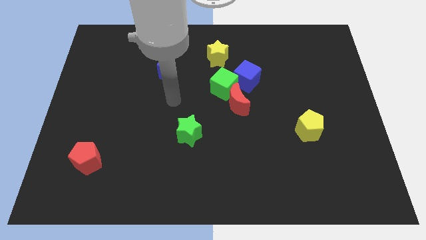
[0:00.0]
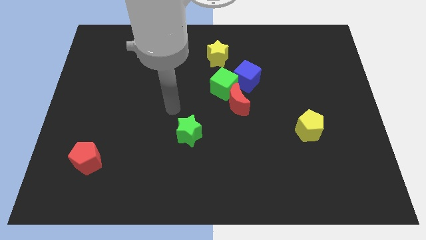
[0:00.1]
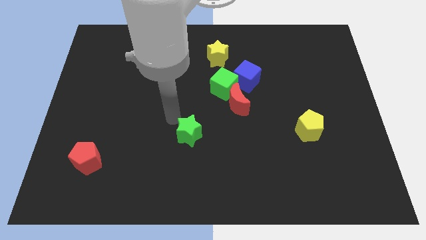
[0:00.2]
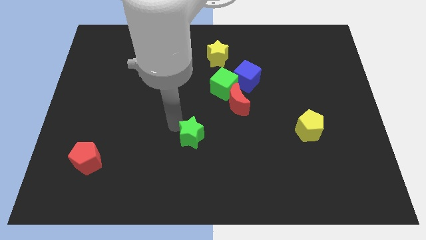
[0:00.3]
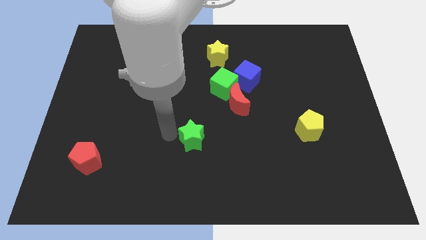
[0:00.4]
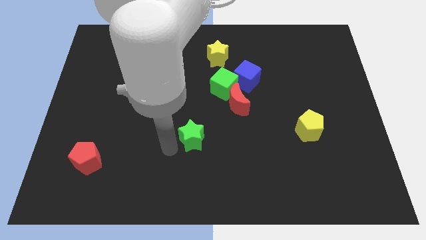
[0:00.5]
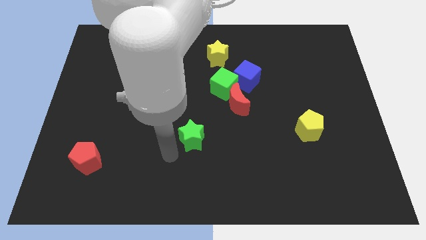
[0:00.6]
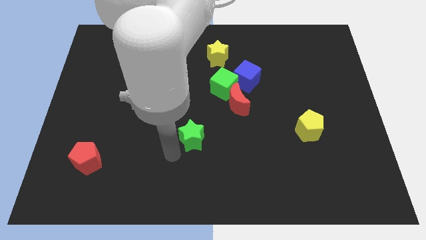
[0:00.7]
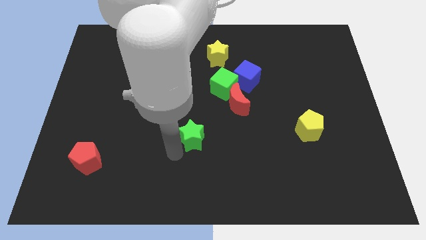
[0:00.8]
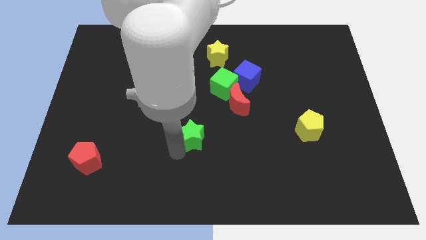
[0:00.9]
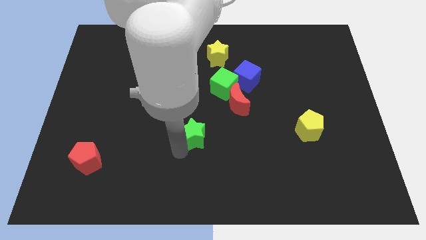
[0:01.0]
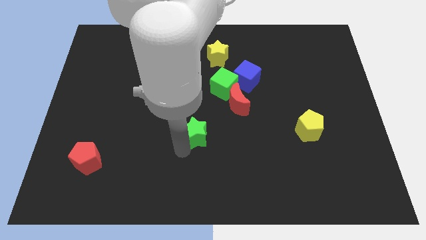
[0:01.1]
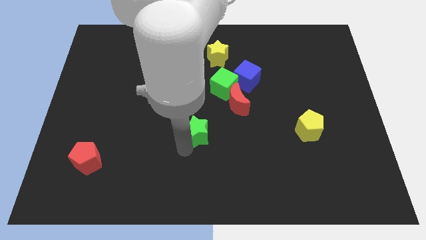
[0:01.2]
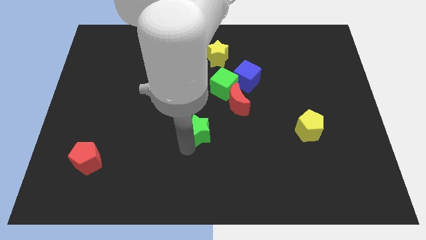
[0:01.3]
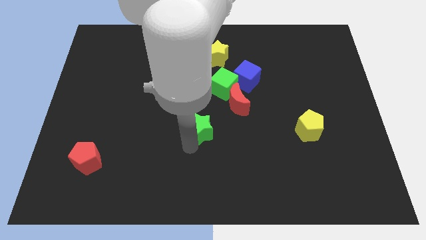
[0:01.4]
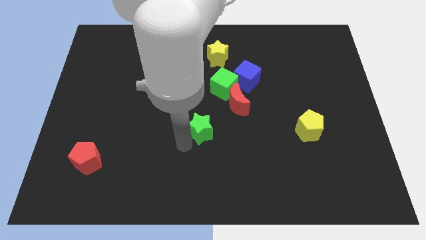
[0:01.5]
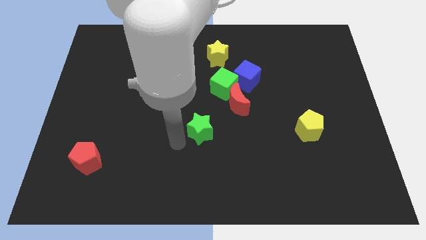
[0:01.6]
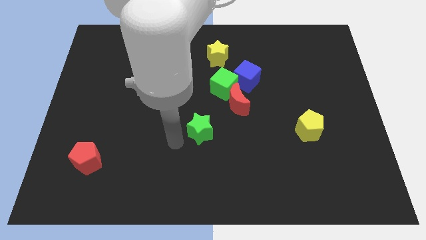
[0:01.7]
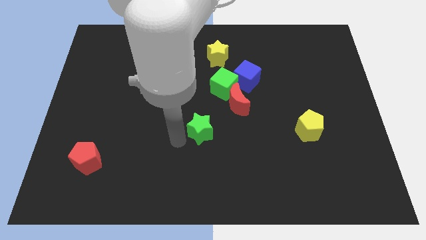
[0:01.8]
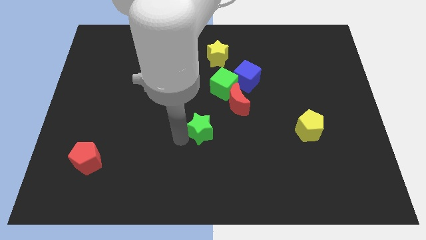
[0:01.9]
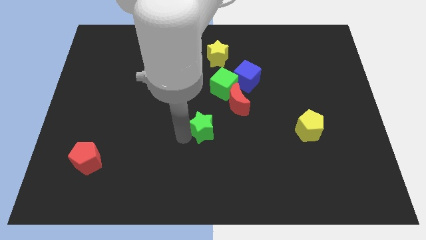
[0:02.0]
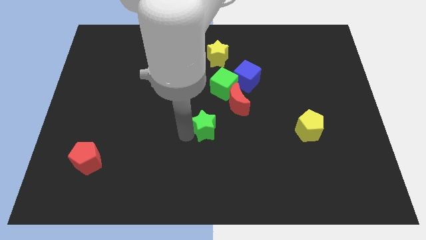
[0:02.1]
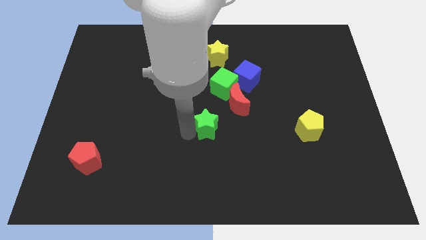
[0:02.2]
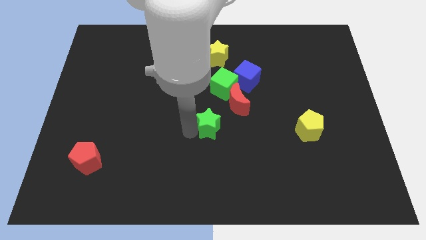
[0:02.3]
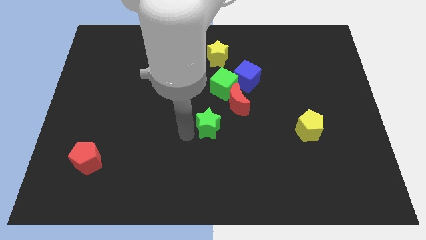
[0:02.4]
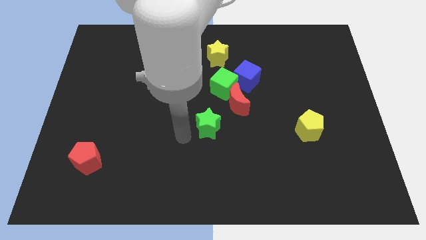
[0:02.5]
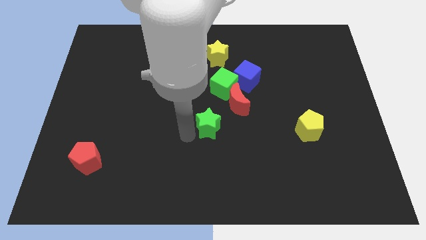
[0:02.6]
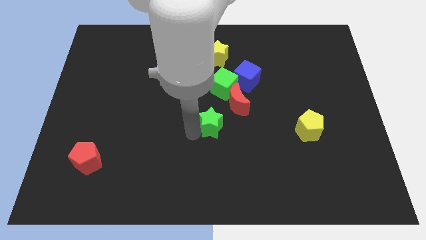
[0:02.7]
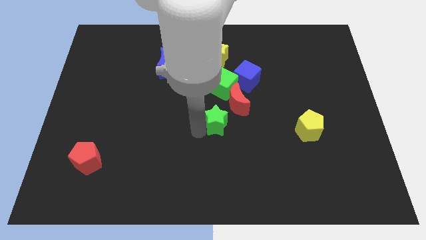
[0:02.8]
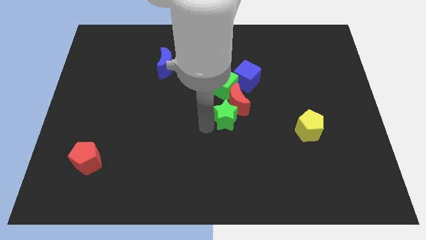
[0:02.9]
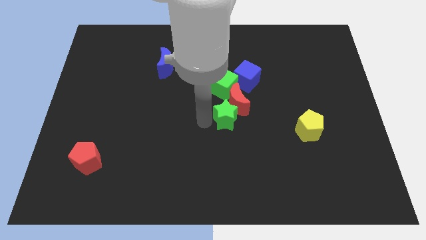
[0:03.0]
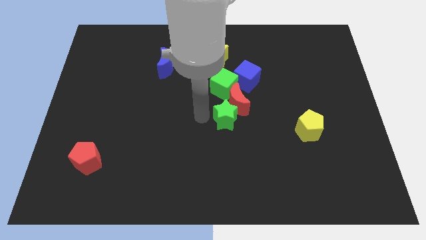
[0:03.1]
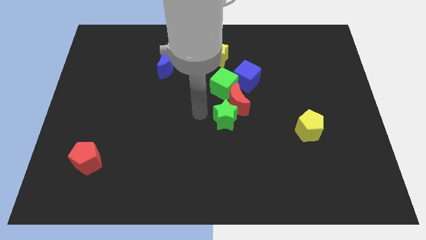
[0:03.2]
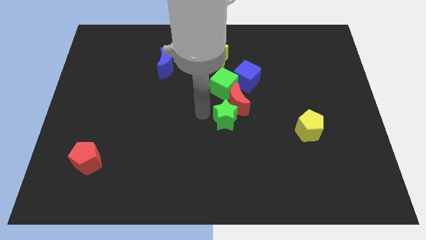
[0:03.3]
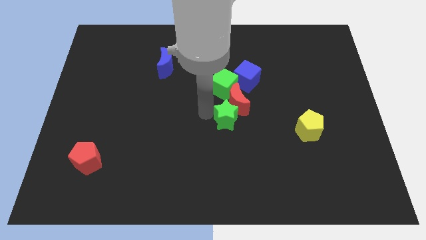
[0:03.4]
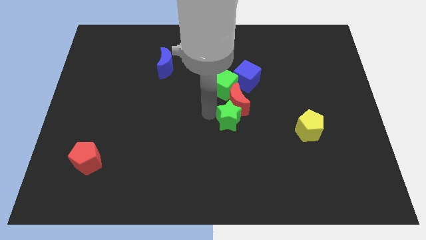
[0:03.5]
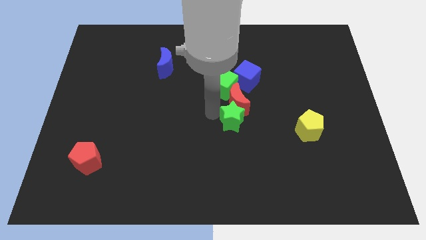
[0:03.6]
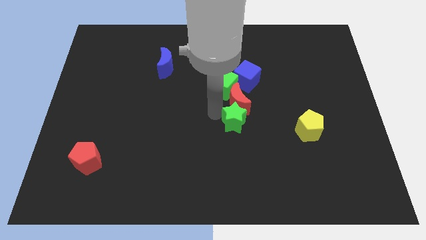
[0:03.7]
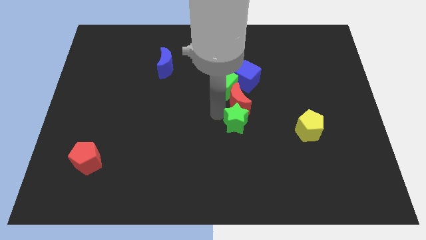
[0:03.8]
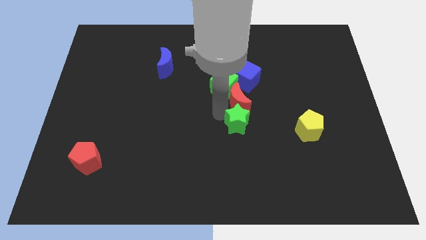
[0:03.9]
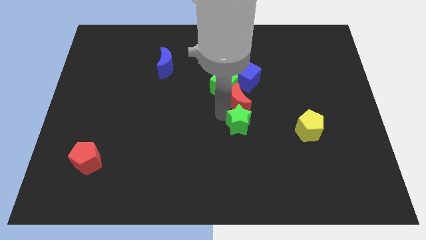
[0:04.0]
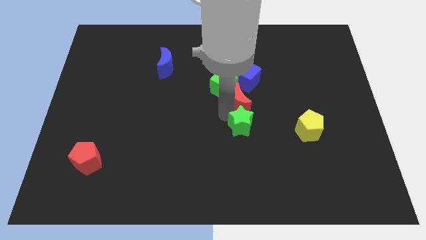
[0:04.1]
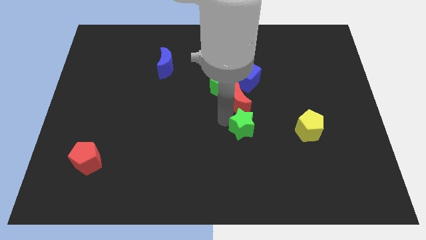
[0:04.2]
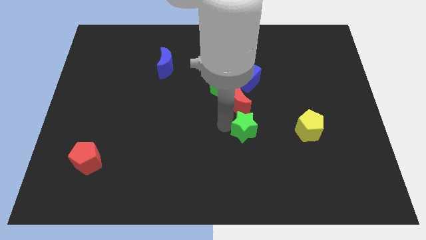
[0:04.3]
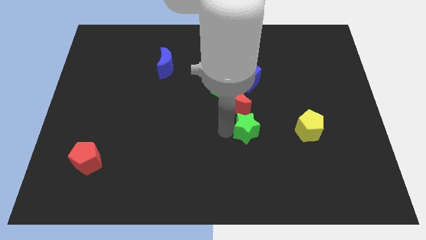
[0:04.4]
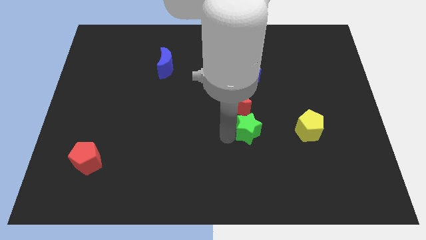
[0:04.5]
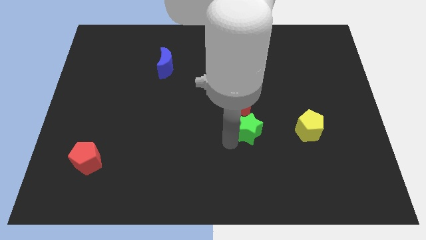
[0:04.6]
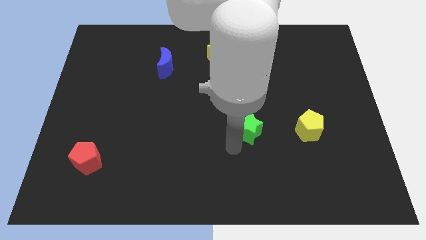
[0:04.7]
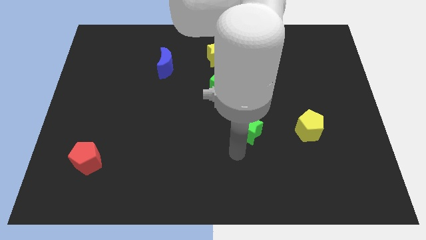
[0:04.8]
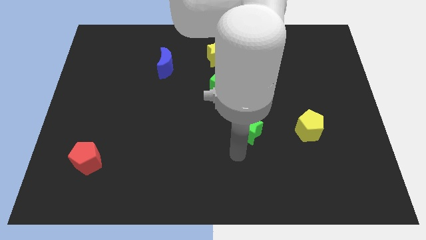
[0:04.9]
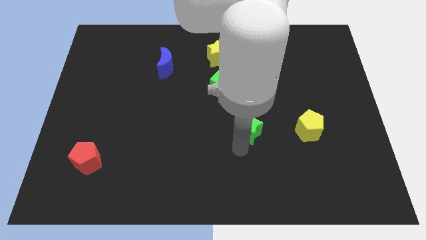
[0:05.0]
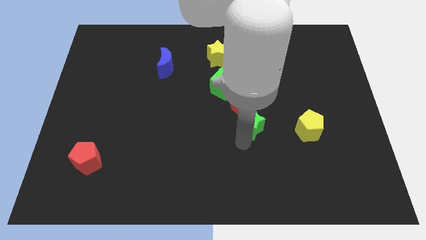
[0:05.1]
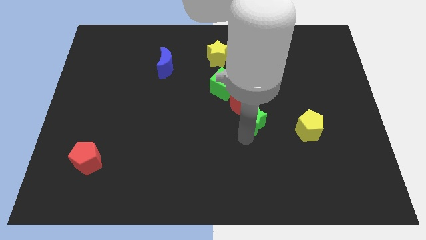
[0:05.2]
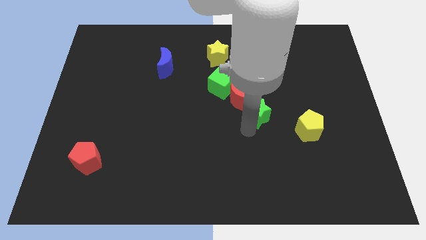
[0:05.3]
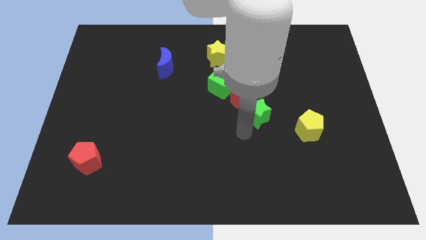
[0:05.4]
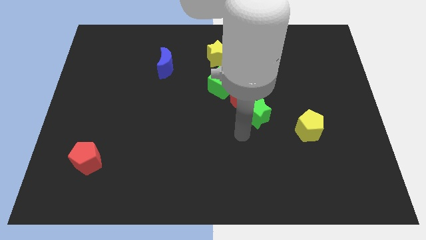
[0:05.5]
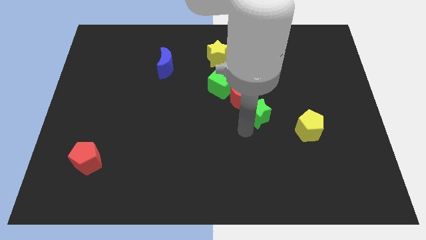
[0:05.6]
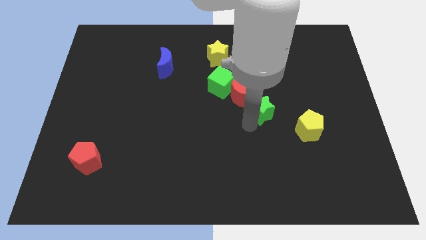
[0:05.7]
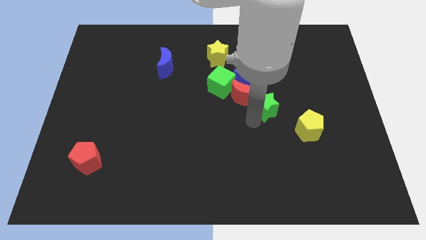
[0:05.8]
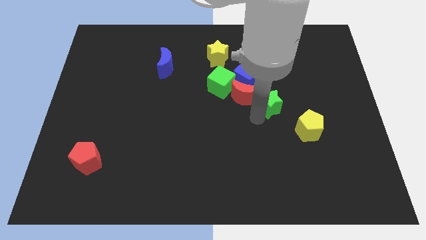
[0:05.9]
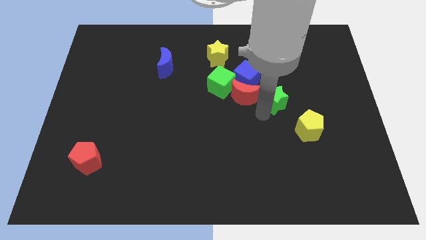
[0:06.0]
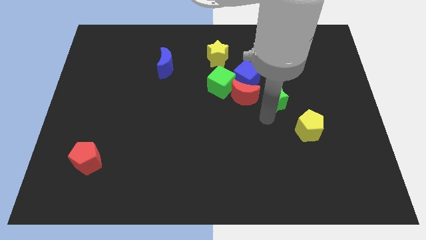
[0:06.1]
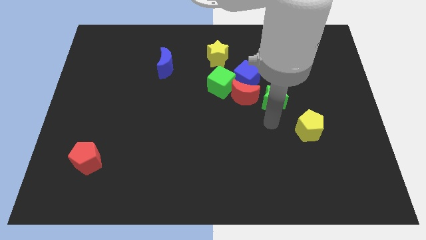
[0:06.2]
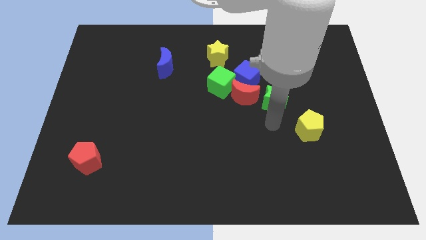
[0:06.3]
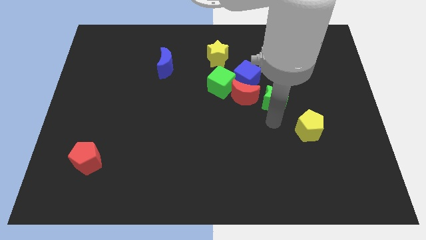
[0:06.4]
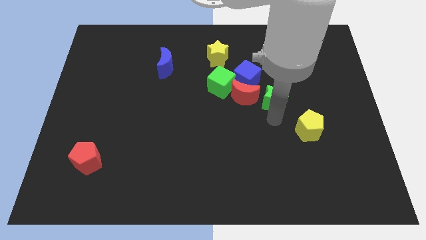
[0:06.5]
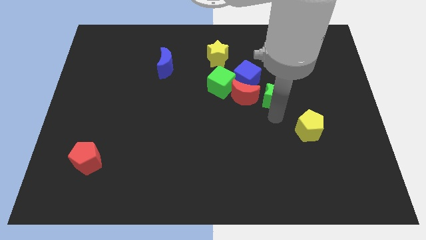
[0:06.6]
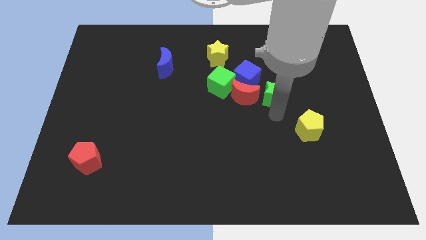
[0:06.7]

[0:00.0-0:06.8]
slide the green star upwards and then to the right

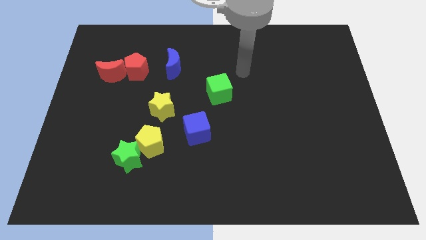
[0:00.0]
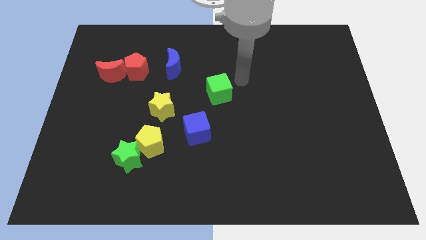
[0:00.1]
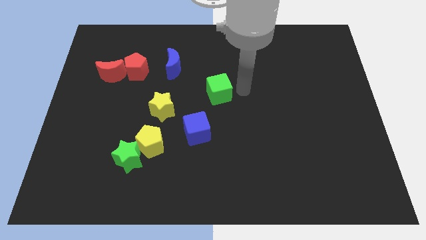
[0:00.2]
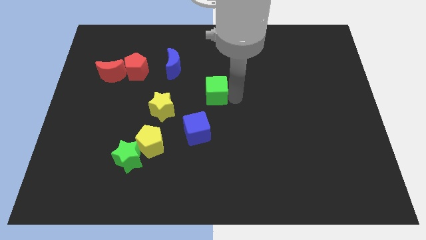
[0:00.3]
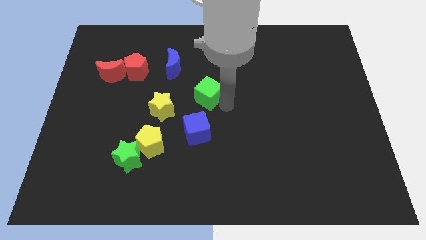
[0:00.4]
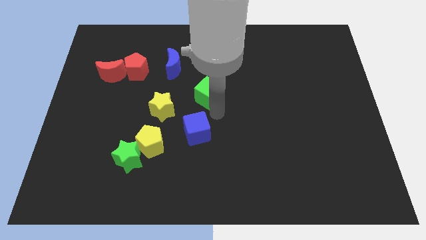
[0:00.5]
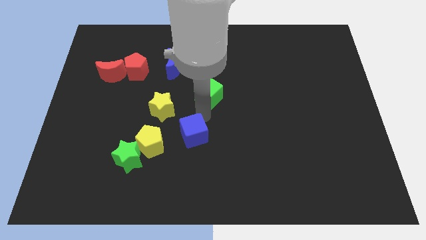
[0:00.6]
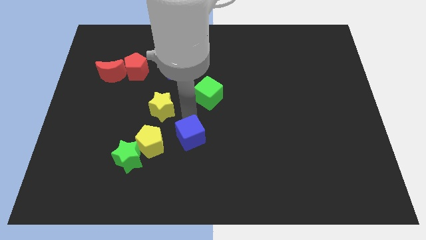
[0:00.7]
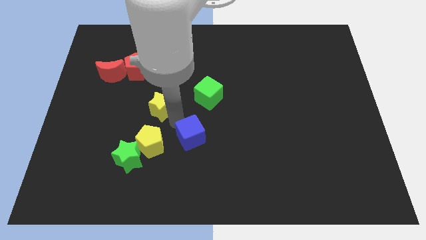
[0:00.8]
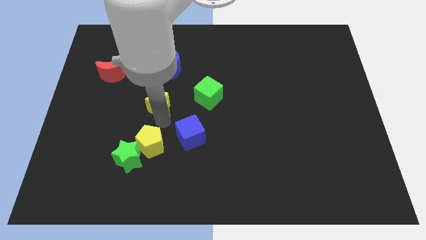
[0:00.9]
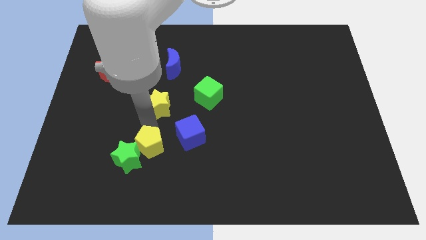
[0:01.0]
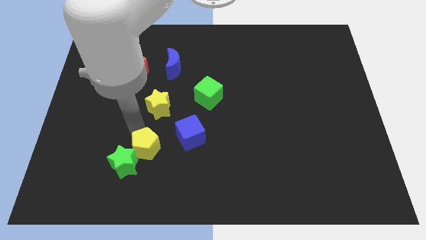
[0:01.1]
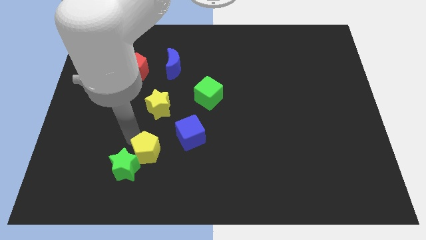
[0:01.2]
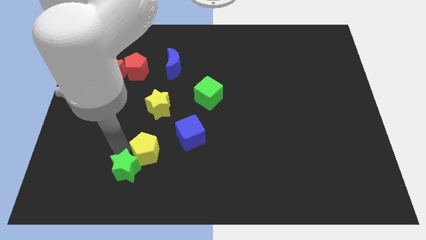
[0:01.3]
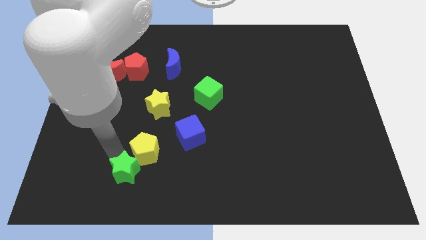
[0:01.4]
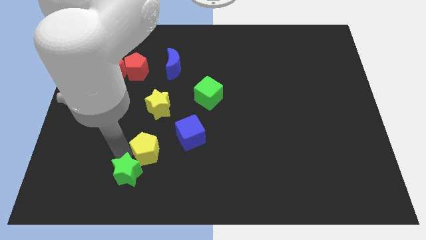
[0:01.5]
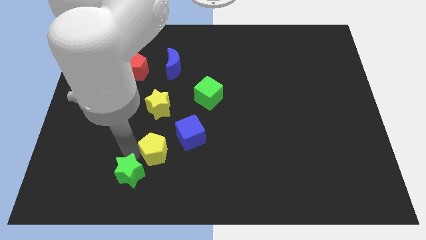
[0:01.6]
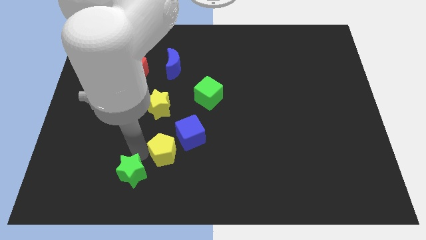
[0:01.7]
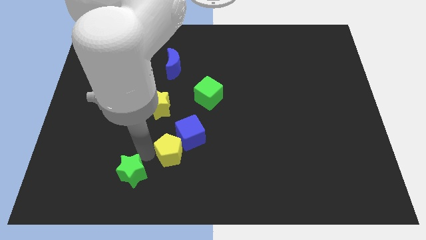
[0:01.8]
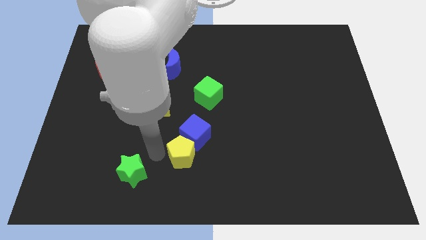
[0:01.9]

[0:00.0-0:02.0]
push the yellow pentagon right a little bit

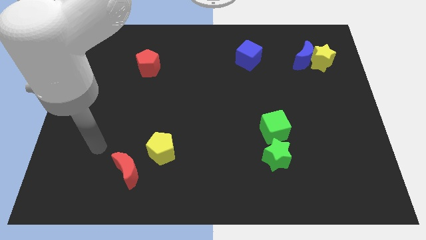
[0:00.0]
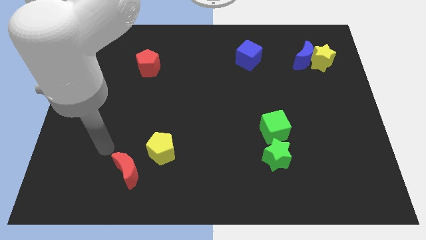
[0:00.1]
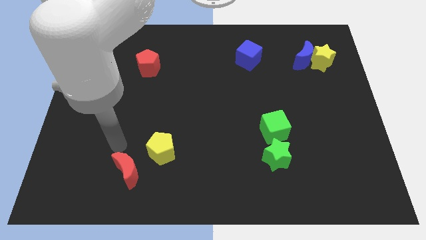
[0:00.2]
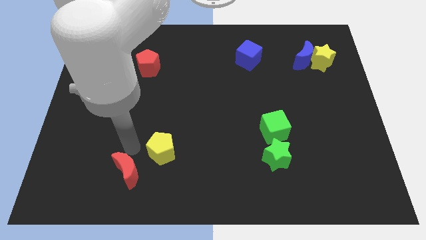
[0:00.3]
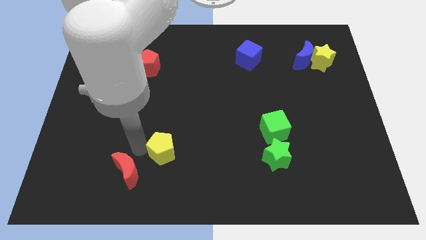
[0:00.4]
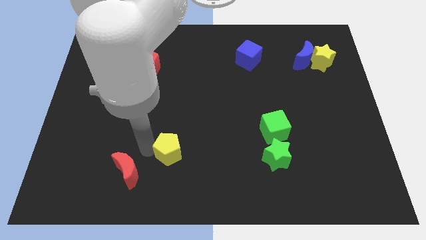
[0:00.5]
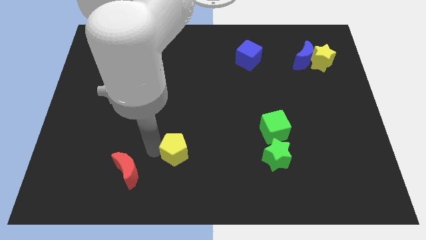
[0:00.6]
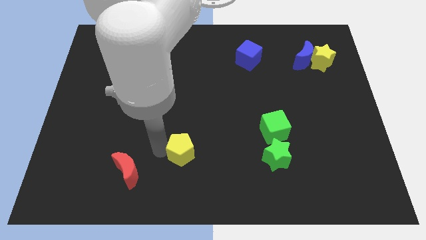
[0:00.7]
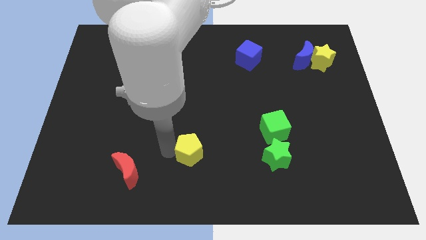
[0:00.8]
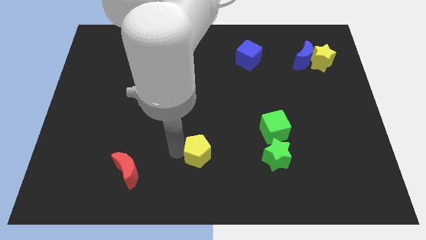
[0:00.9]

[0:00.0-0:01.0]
move the yellow pentagon to the right a bit
